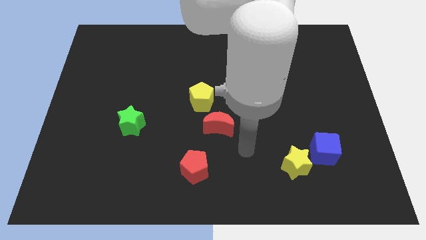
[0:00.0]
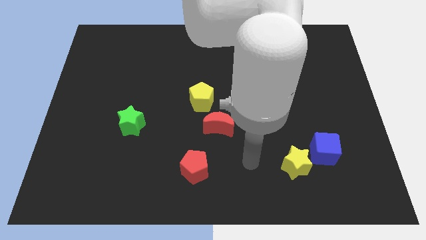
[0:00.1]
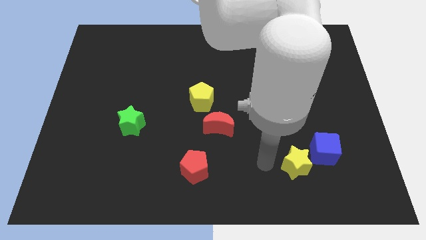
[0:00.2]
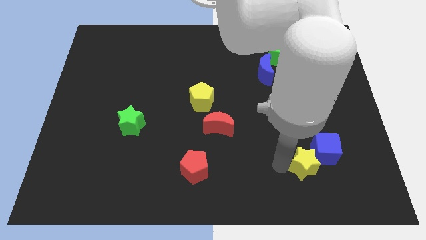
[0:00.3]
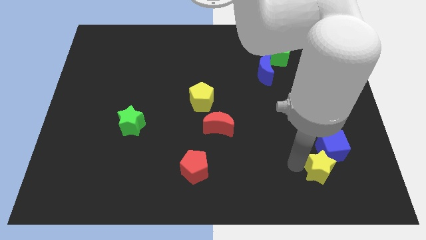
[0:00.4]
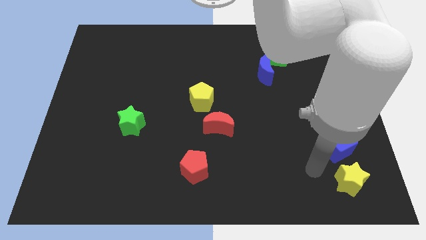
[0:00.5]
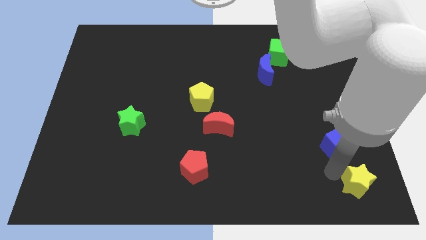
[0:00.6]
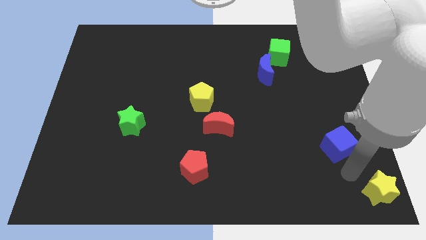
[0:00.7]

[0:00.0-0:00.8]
move the blue cube away from the yellow star

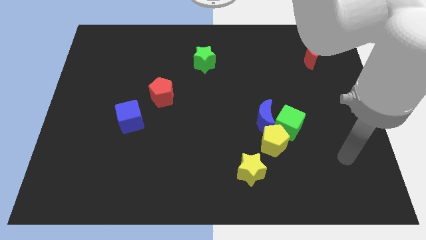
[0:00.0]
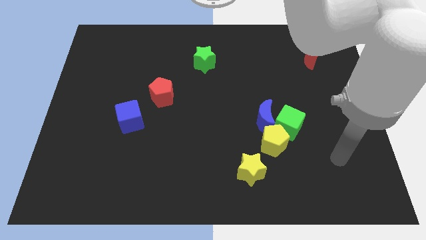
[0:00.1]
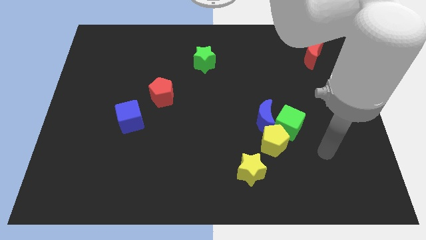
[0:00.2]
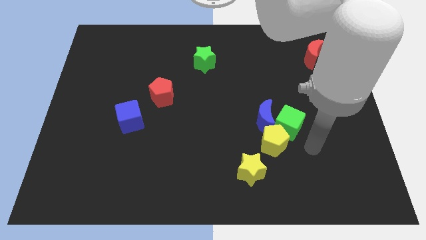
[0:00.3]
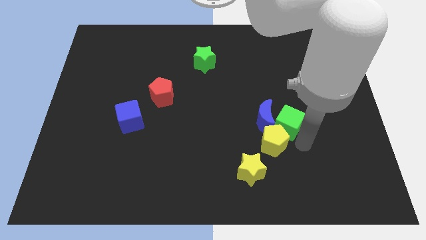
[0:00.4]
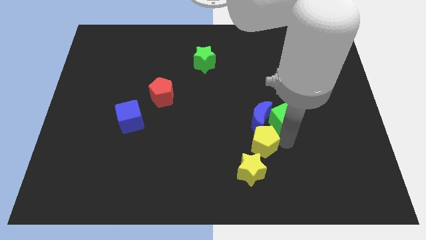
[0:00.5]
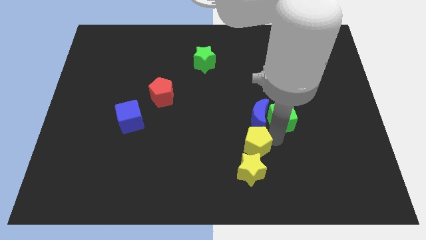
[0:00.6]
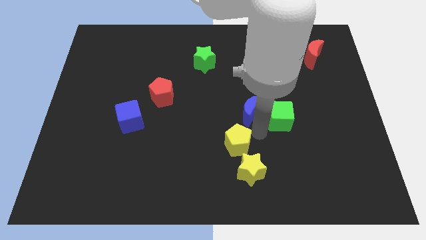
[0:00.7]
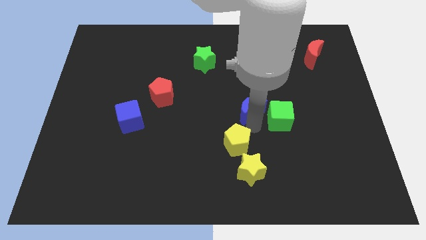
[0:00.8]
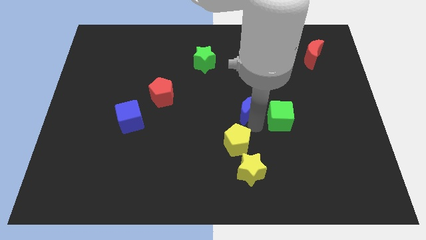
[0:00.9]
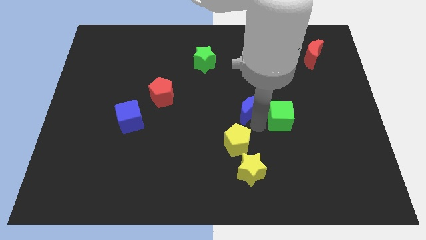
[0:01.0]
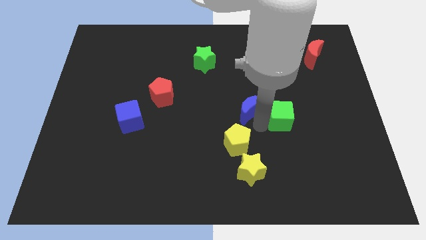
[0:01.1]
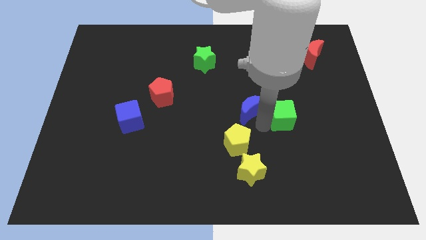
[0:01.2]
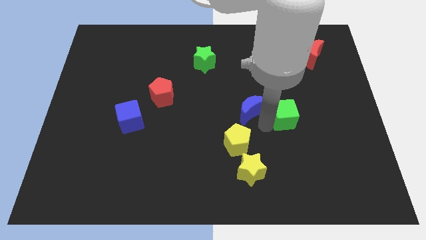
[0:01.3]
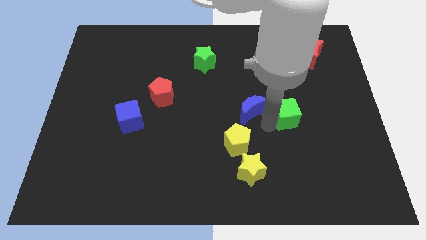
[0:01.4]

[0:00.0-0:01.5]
separate the green cube from the blue moon and yellow pentagon

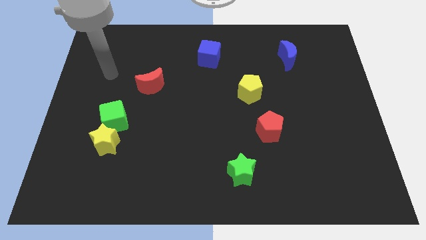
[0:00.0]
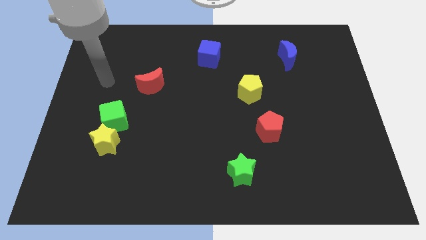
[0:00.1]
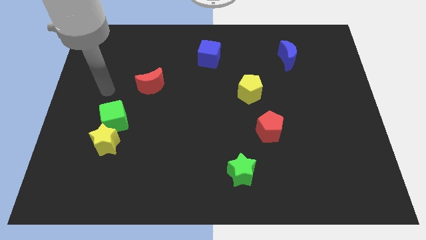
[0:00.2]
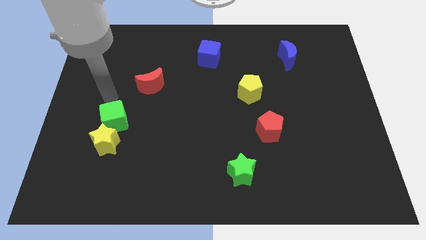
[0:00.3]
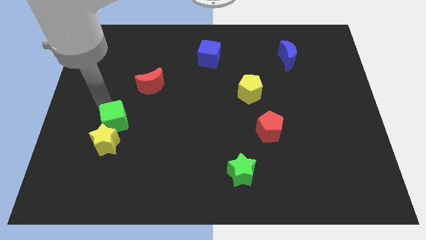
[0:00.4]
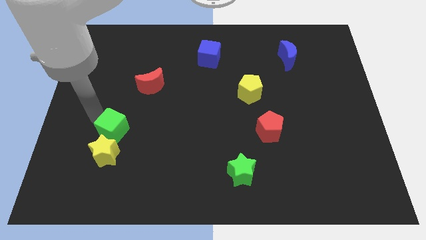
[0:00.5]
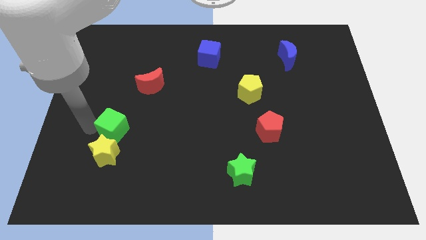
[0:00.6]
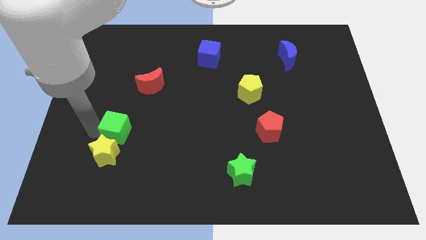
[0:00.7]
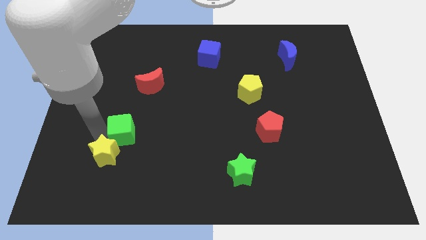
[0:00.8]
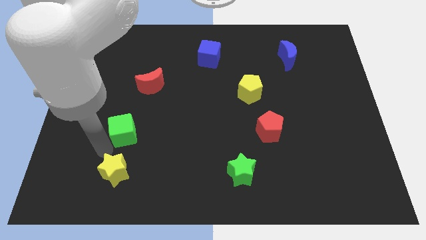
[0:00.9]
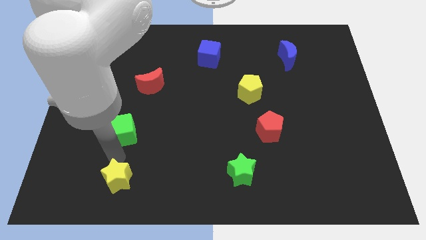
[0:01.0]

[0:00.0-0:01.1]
pull the green cube apart from the yellow star

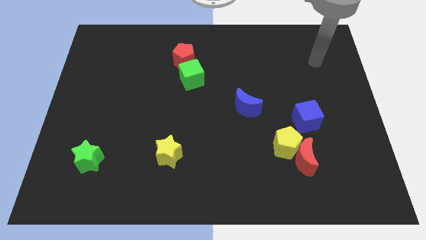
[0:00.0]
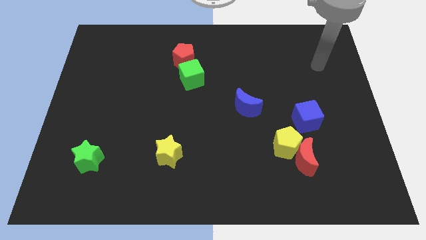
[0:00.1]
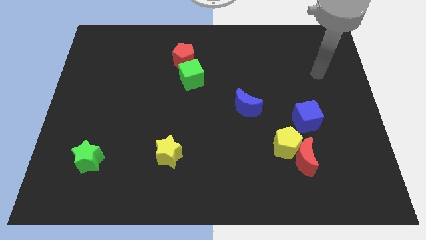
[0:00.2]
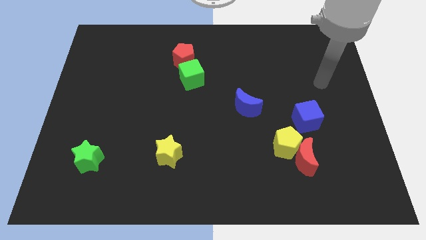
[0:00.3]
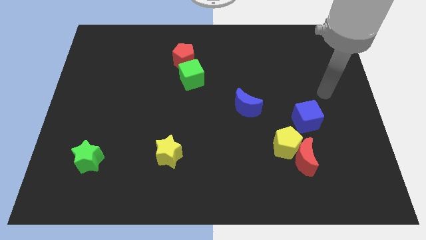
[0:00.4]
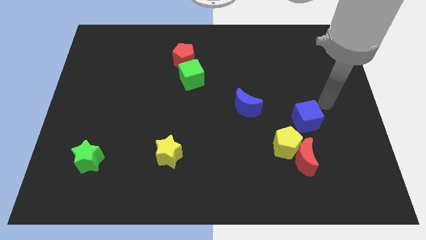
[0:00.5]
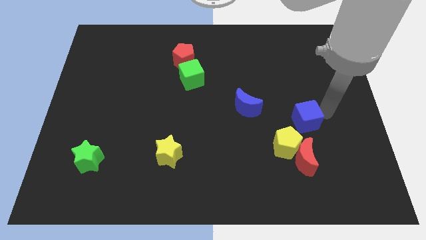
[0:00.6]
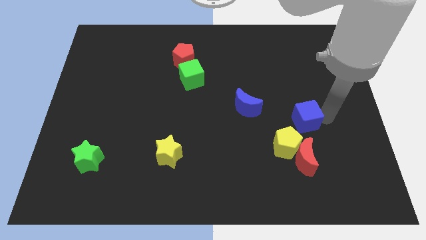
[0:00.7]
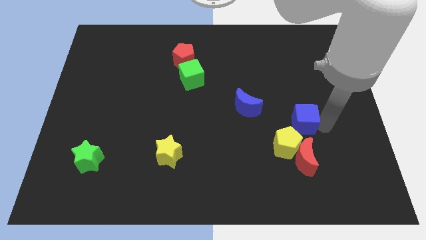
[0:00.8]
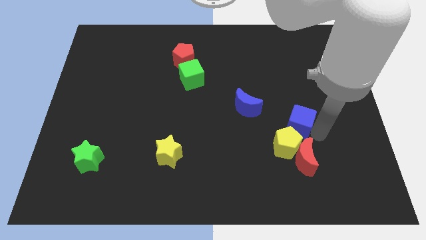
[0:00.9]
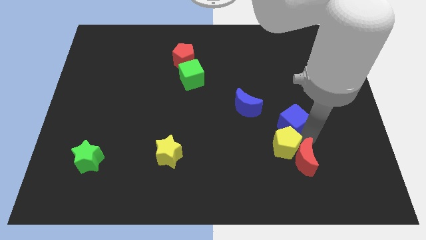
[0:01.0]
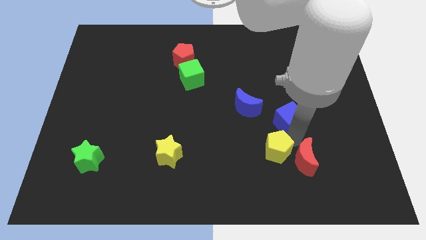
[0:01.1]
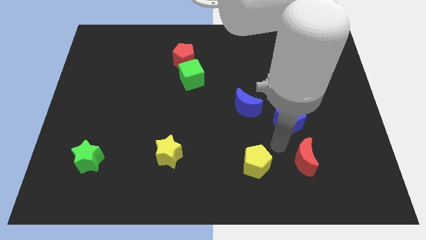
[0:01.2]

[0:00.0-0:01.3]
separate the red moon from the yellow pentagon

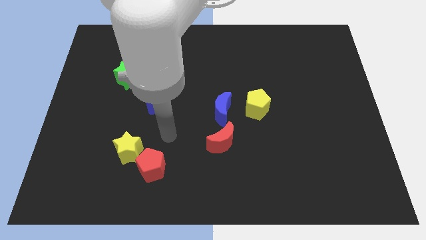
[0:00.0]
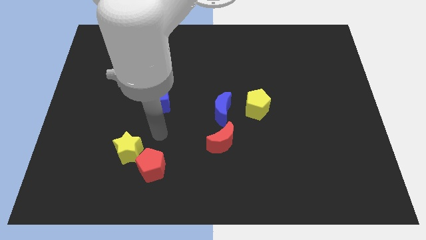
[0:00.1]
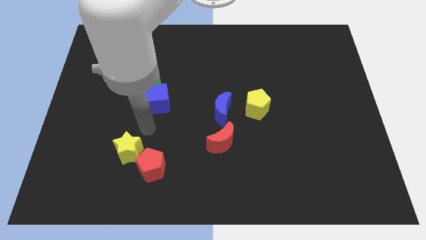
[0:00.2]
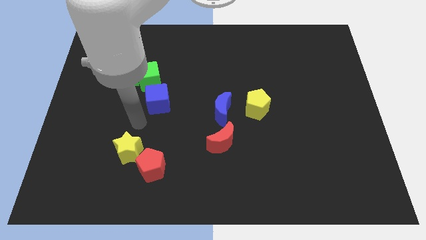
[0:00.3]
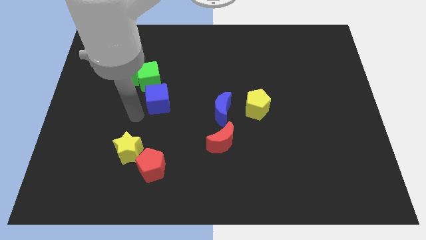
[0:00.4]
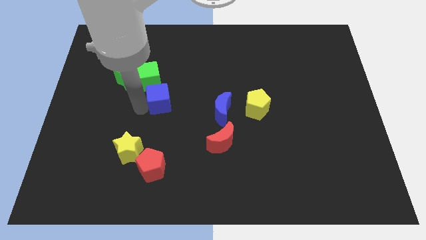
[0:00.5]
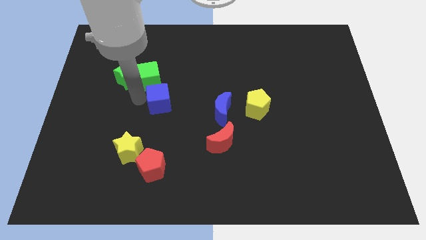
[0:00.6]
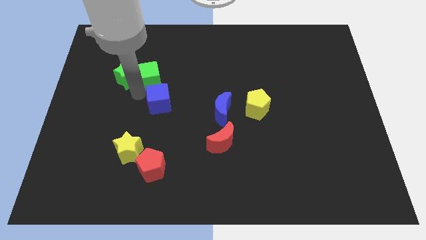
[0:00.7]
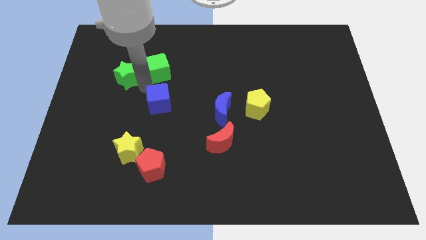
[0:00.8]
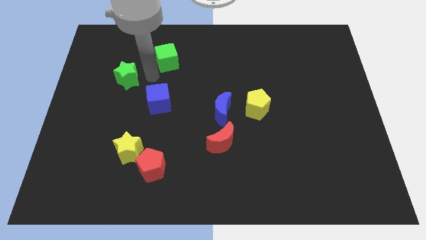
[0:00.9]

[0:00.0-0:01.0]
move the green star away from the green cube

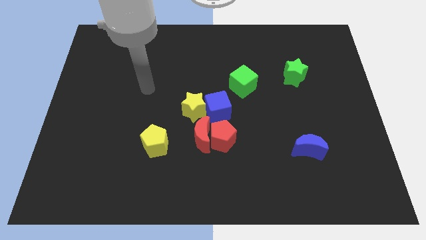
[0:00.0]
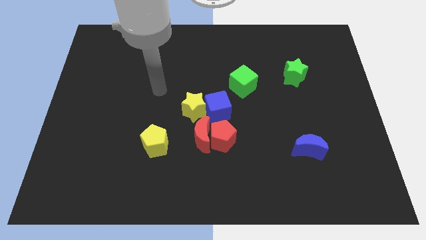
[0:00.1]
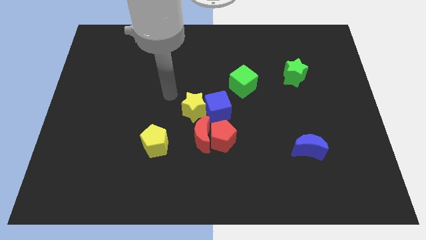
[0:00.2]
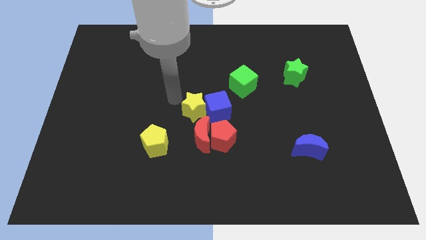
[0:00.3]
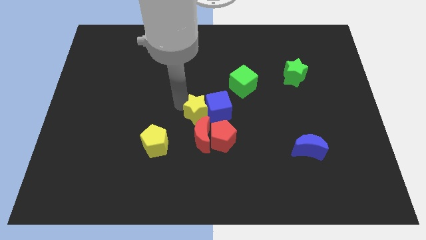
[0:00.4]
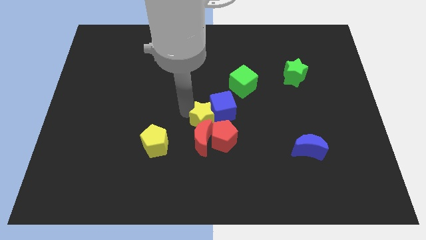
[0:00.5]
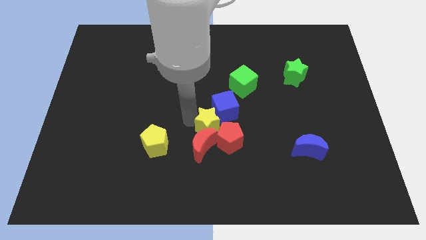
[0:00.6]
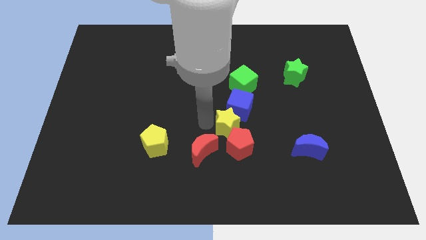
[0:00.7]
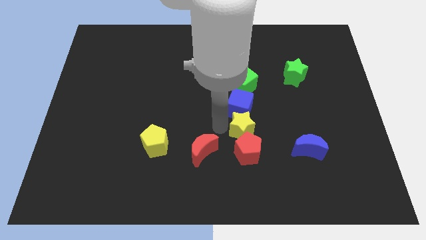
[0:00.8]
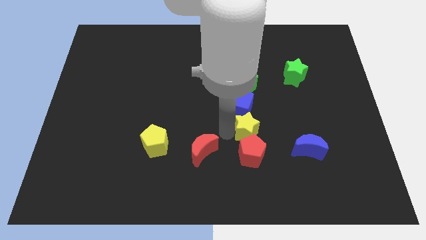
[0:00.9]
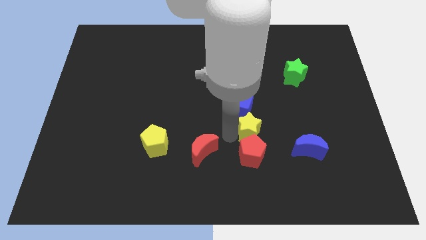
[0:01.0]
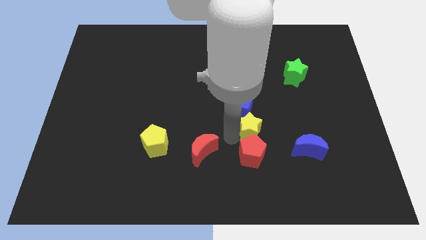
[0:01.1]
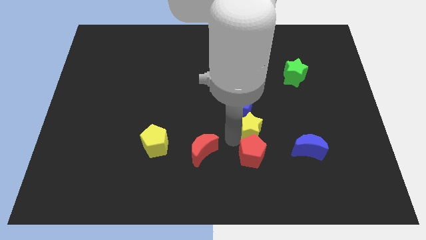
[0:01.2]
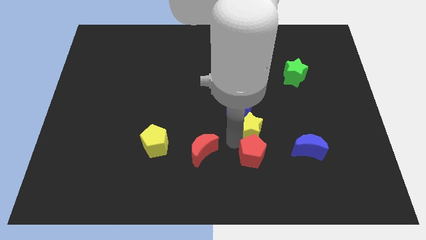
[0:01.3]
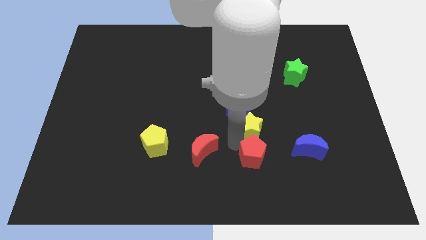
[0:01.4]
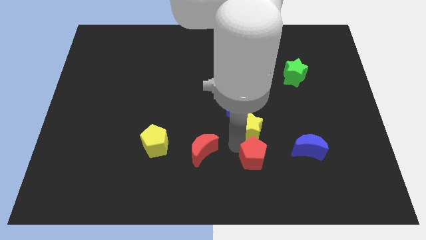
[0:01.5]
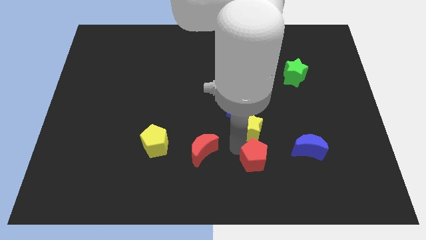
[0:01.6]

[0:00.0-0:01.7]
move the red pentagon away from the red moon and blue cube

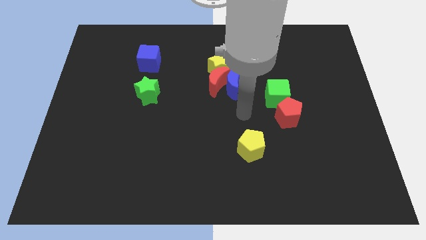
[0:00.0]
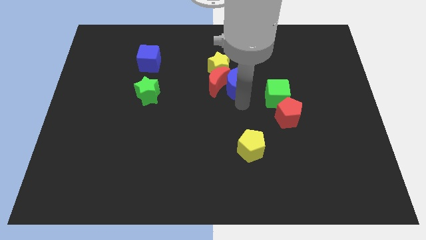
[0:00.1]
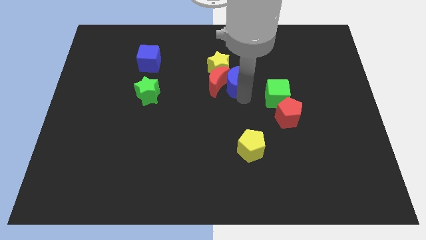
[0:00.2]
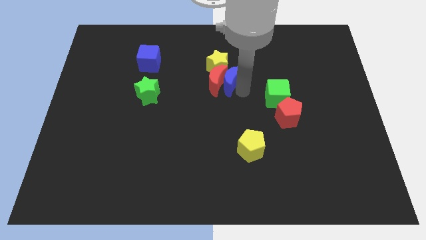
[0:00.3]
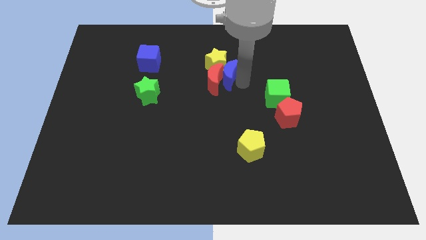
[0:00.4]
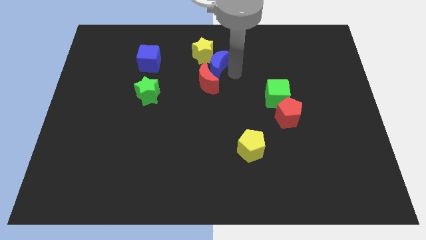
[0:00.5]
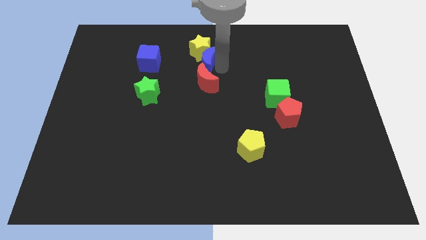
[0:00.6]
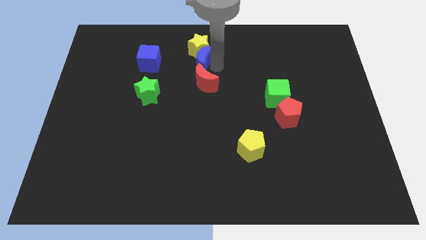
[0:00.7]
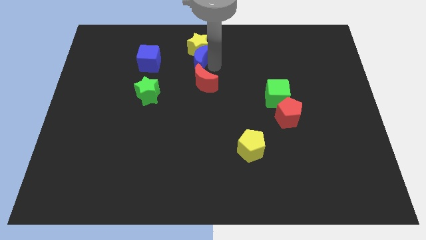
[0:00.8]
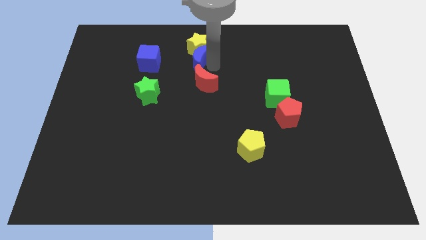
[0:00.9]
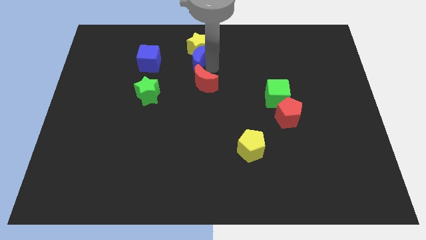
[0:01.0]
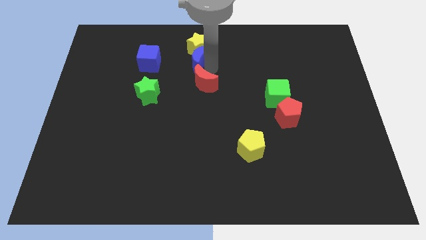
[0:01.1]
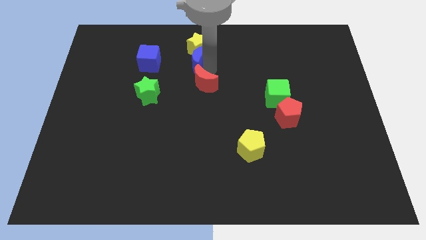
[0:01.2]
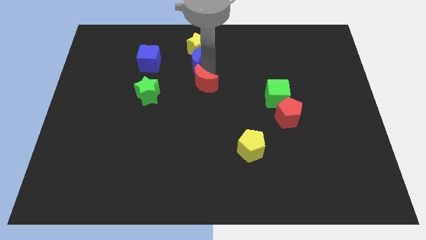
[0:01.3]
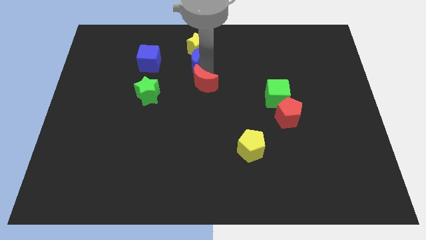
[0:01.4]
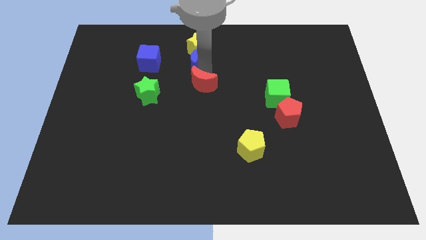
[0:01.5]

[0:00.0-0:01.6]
move the red moon away from the blue moon and yellow star

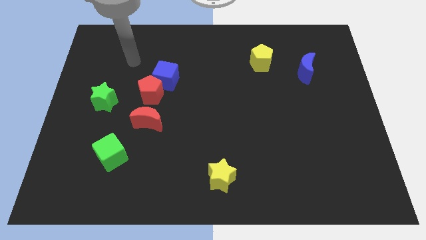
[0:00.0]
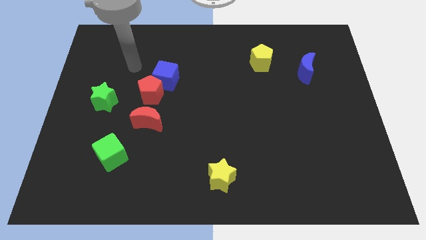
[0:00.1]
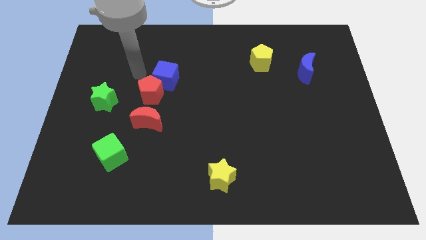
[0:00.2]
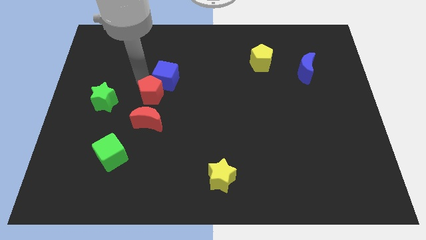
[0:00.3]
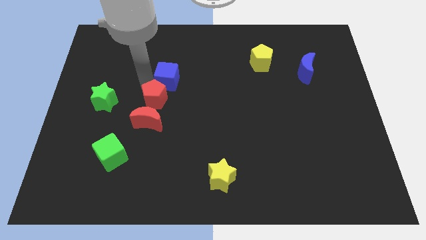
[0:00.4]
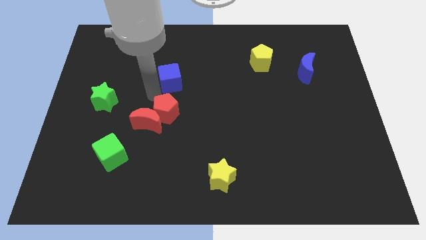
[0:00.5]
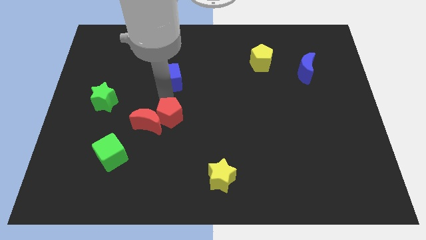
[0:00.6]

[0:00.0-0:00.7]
separate the blue cube from the red pentagon
